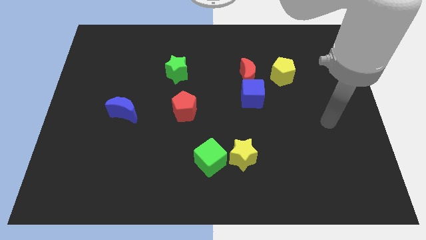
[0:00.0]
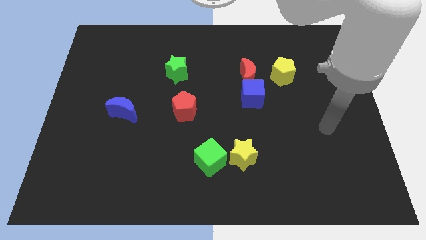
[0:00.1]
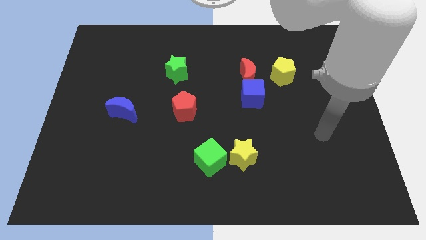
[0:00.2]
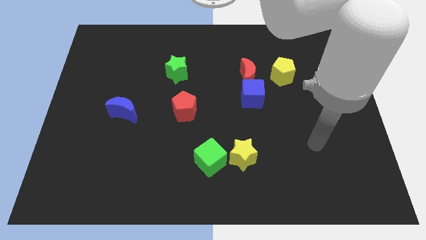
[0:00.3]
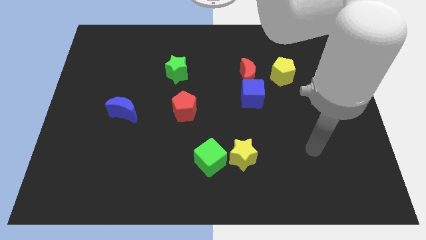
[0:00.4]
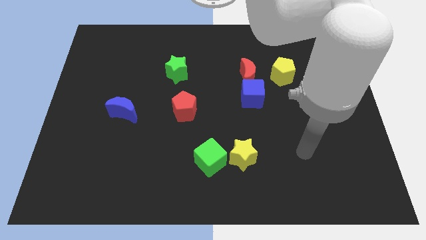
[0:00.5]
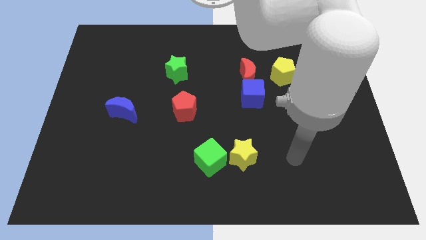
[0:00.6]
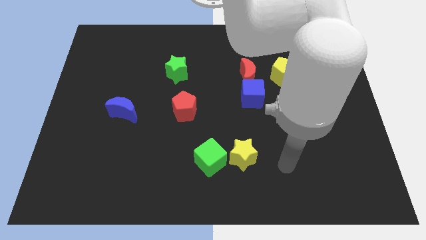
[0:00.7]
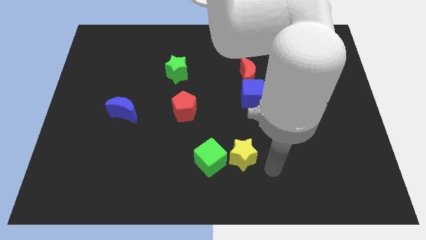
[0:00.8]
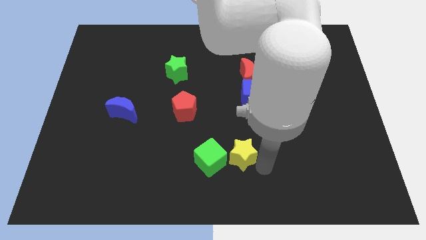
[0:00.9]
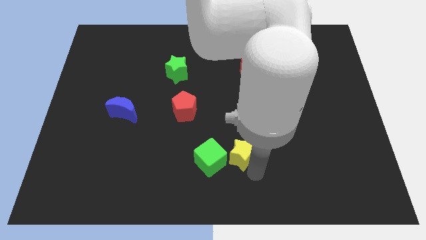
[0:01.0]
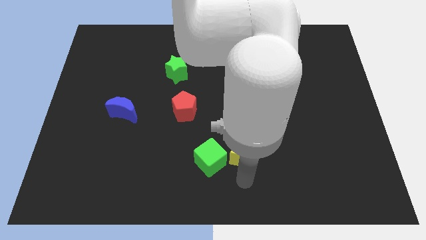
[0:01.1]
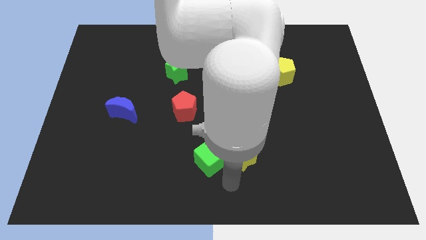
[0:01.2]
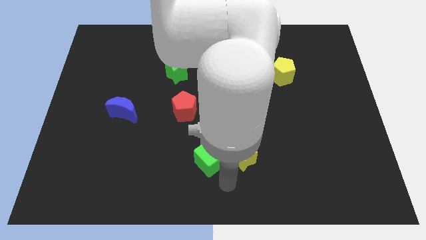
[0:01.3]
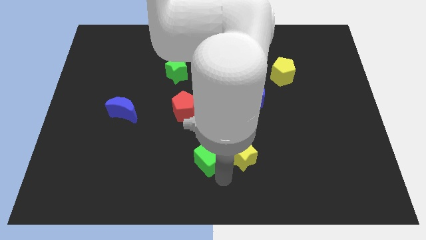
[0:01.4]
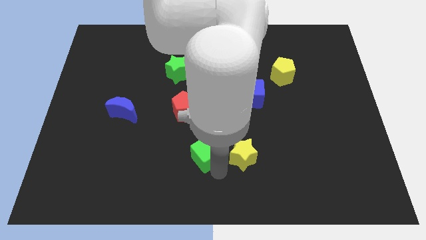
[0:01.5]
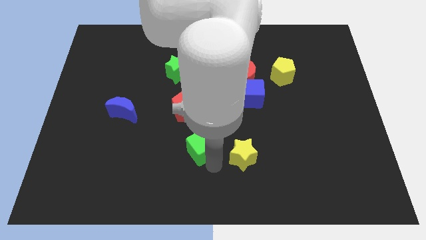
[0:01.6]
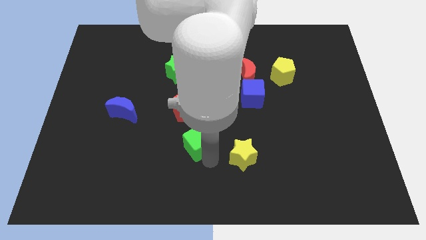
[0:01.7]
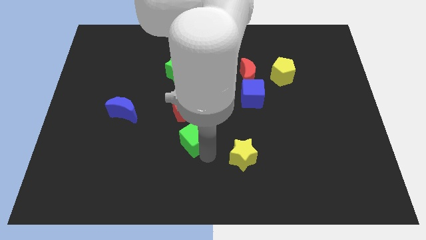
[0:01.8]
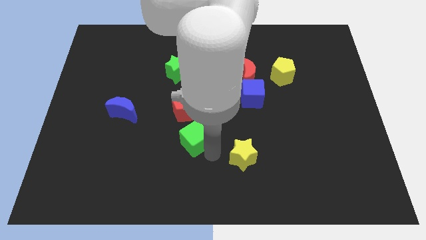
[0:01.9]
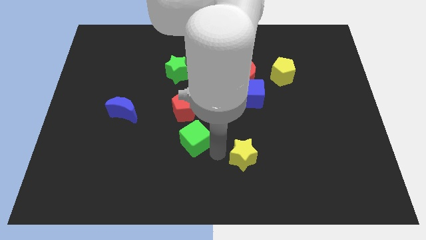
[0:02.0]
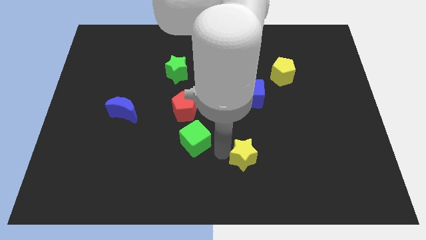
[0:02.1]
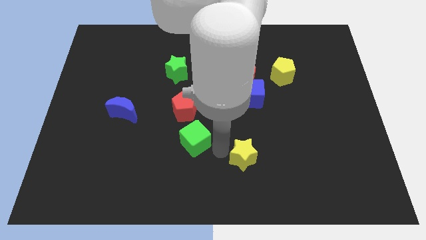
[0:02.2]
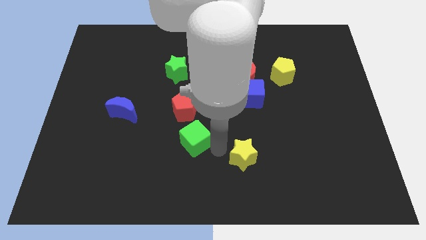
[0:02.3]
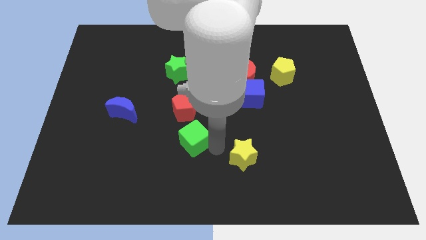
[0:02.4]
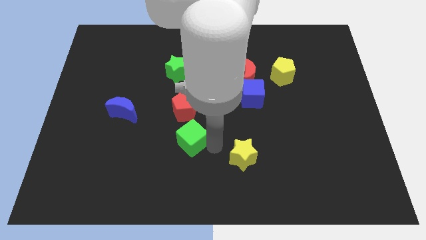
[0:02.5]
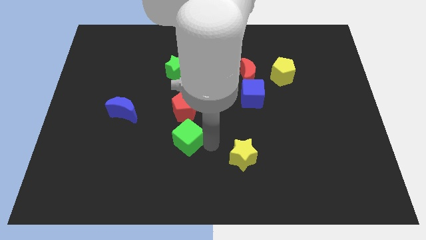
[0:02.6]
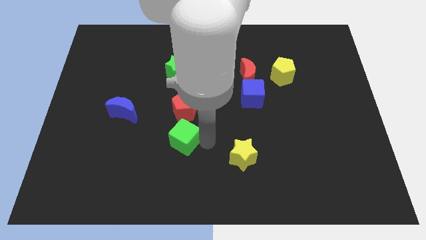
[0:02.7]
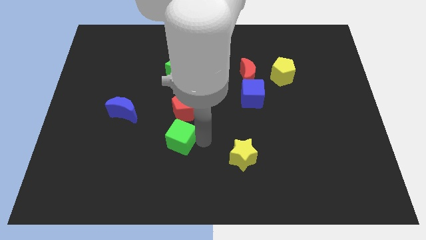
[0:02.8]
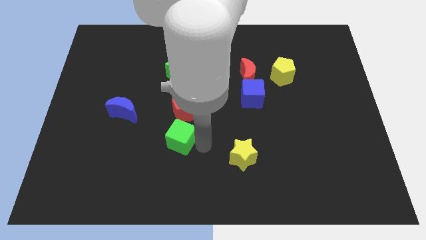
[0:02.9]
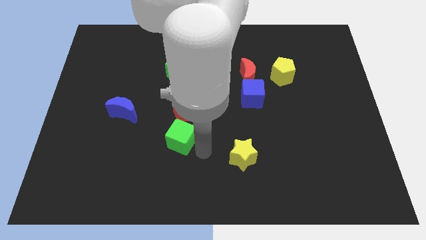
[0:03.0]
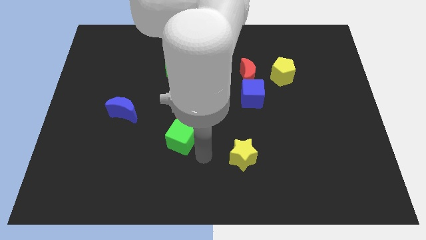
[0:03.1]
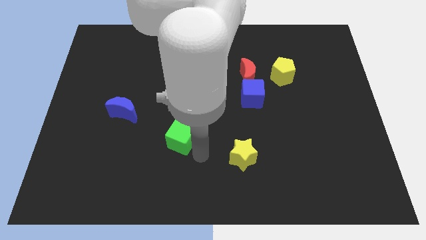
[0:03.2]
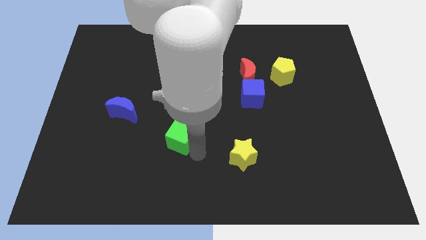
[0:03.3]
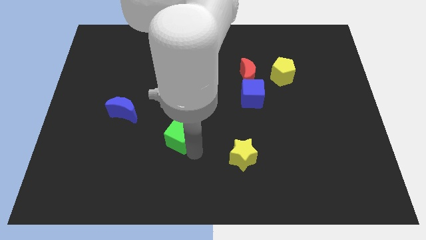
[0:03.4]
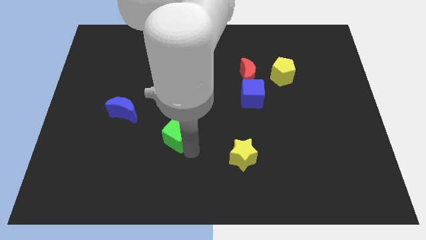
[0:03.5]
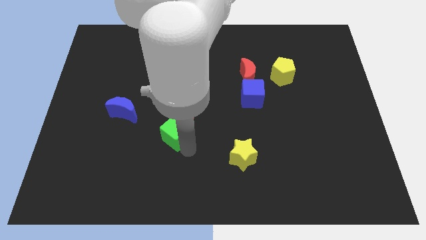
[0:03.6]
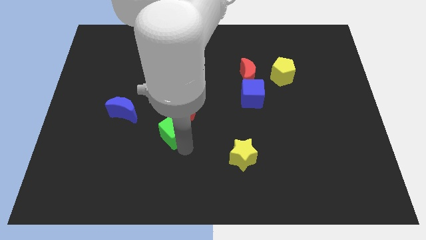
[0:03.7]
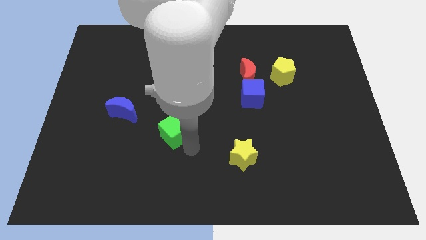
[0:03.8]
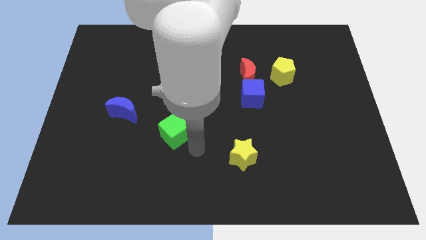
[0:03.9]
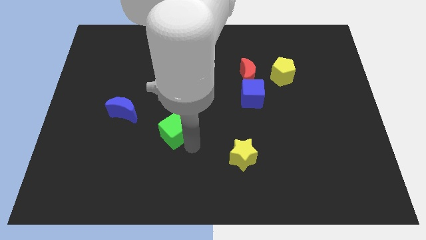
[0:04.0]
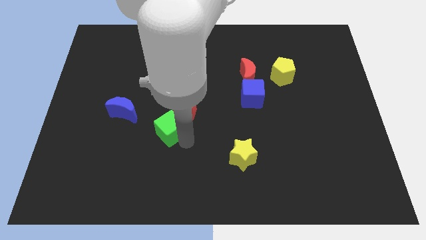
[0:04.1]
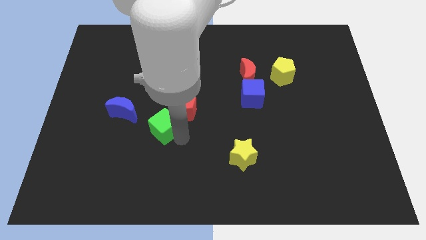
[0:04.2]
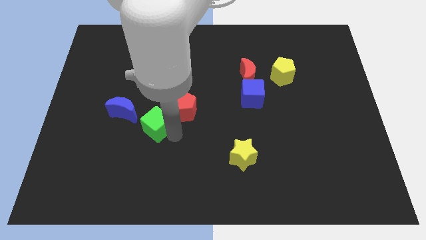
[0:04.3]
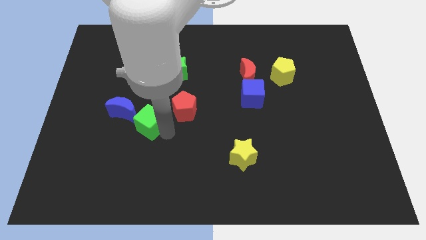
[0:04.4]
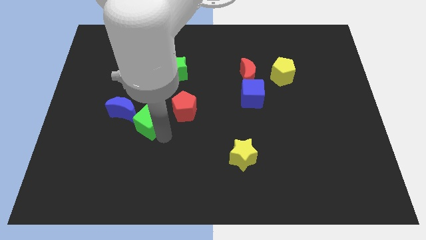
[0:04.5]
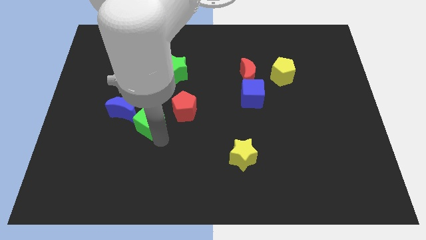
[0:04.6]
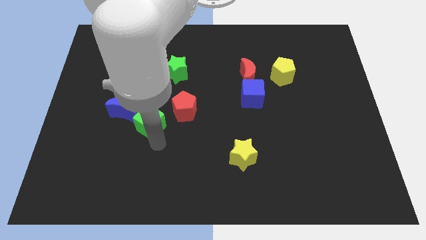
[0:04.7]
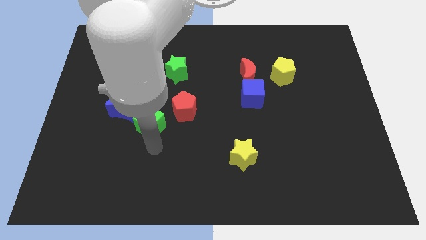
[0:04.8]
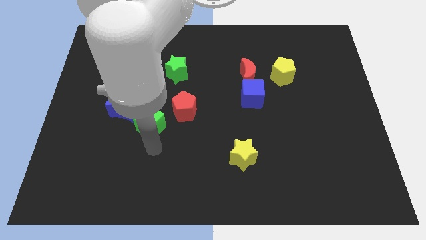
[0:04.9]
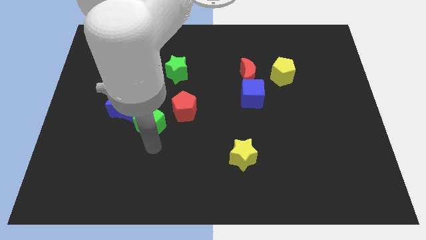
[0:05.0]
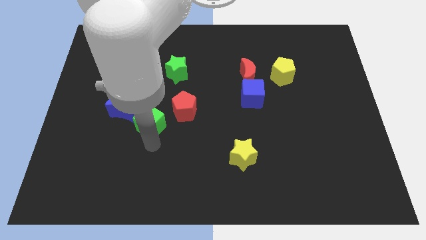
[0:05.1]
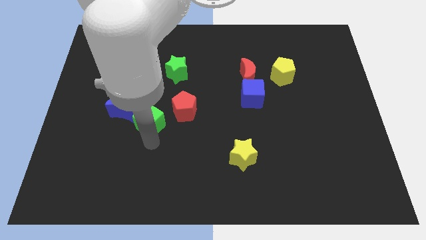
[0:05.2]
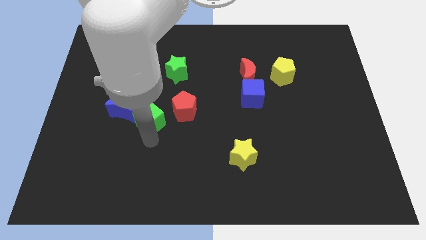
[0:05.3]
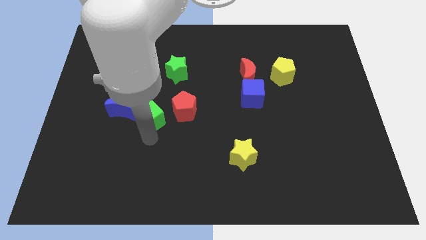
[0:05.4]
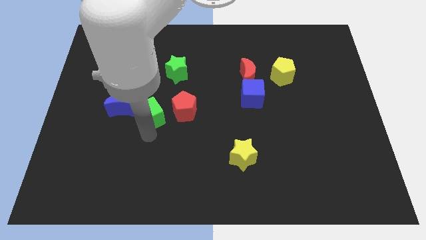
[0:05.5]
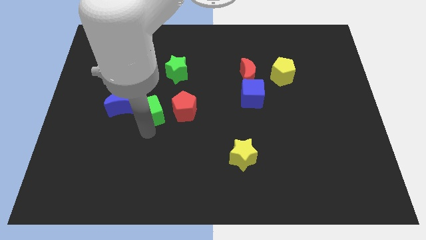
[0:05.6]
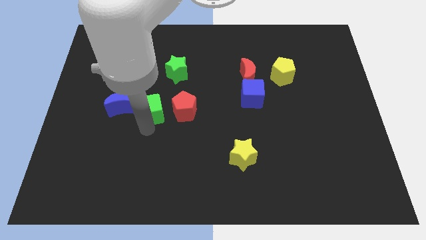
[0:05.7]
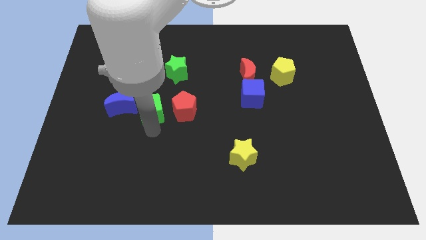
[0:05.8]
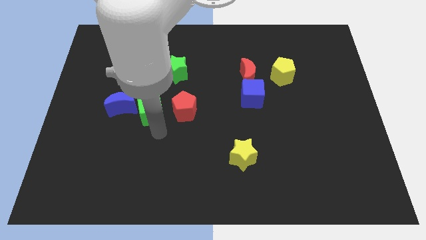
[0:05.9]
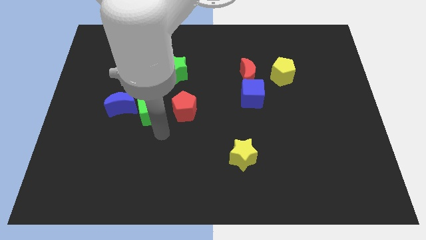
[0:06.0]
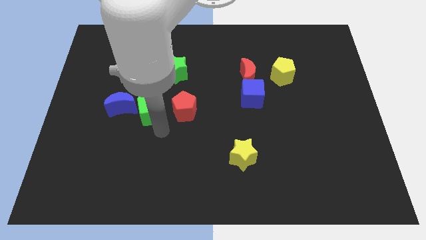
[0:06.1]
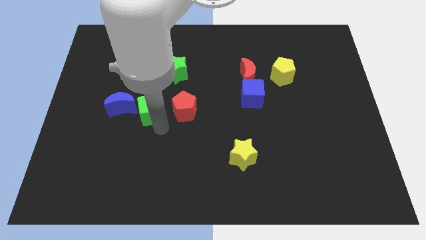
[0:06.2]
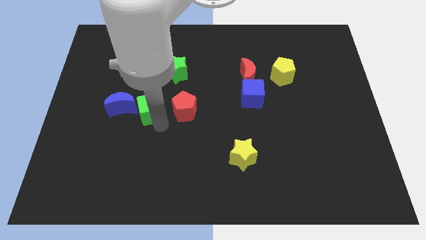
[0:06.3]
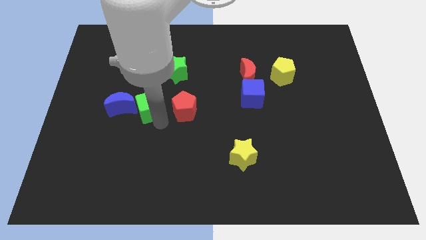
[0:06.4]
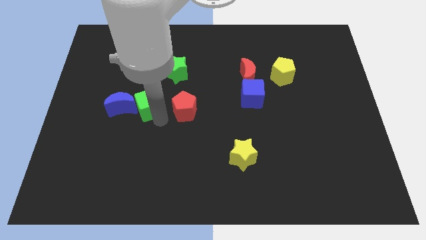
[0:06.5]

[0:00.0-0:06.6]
push the green cube upwards and left

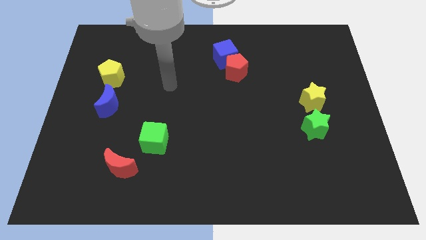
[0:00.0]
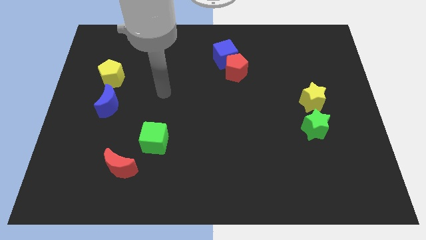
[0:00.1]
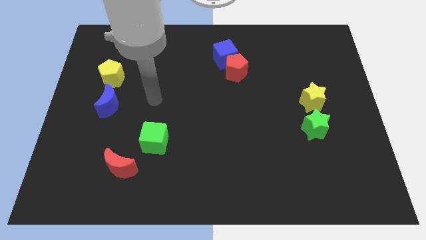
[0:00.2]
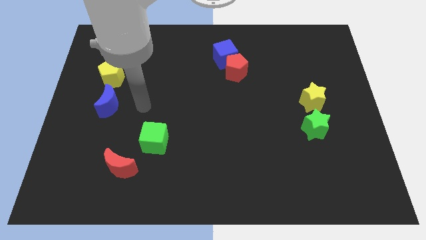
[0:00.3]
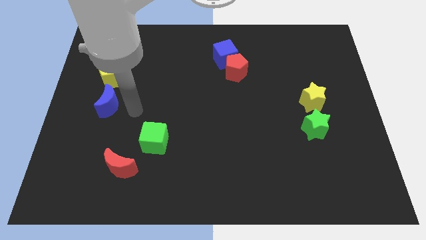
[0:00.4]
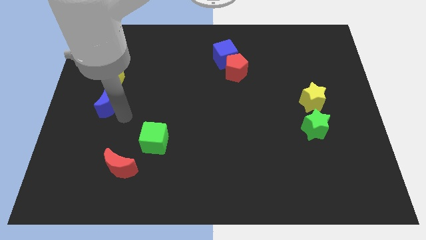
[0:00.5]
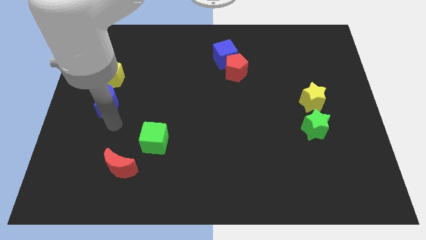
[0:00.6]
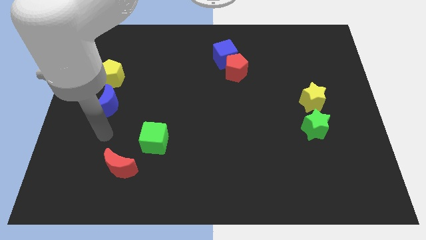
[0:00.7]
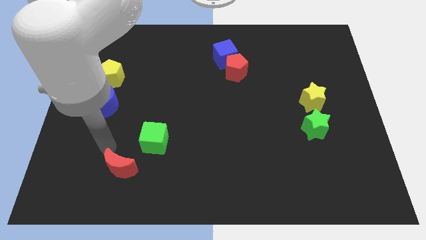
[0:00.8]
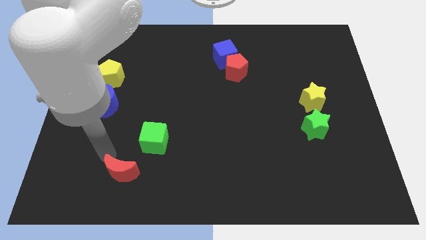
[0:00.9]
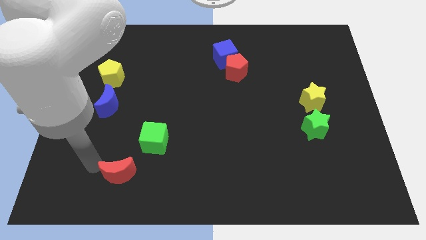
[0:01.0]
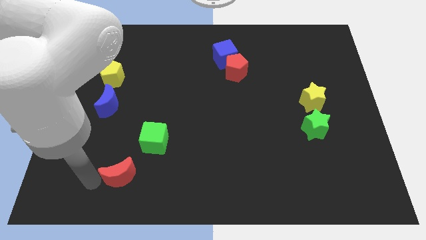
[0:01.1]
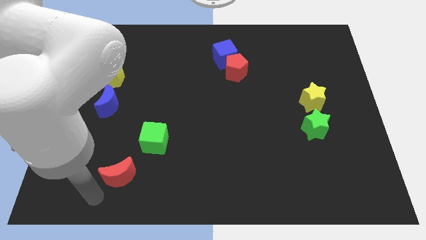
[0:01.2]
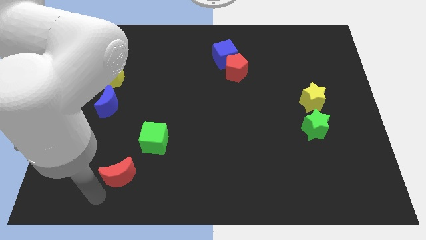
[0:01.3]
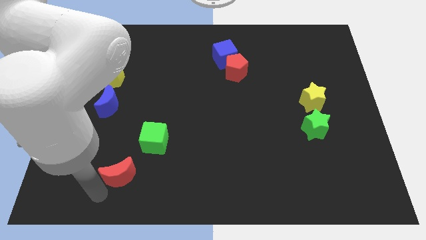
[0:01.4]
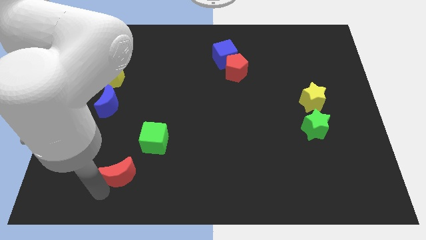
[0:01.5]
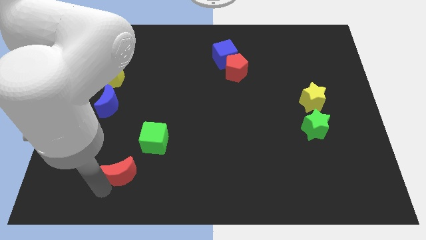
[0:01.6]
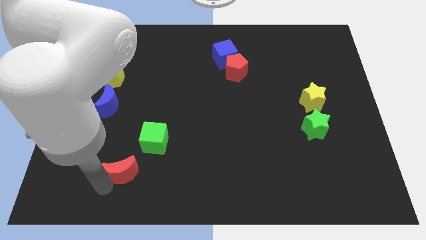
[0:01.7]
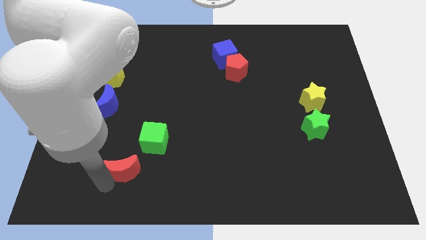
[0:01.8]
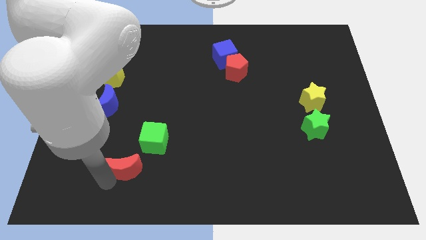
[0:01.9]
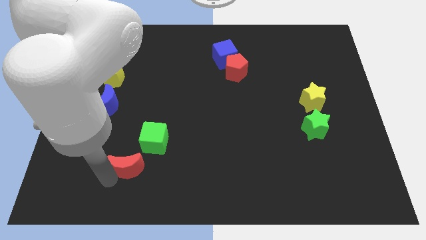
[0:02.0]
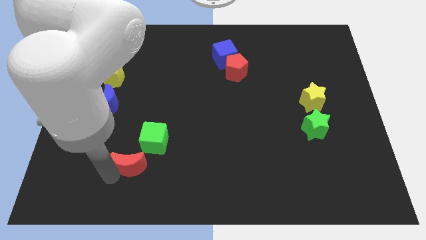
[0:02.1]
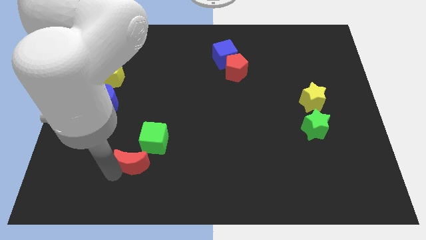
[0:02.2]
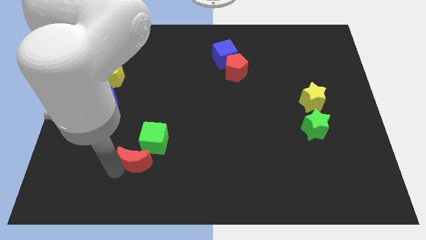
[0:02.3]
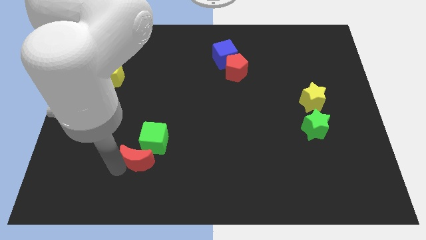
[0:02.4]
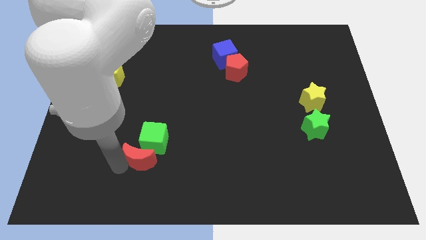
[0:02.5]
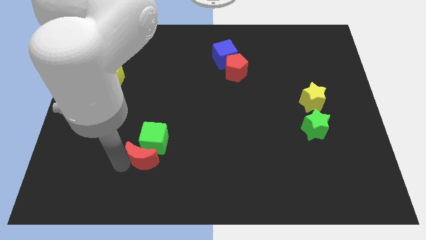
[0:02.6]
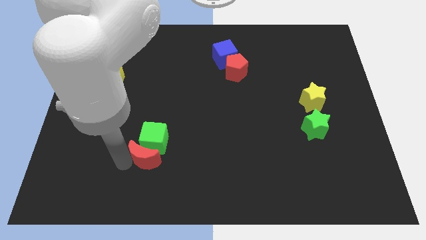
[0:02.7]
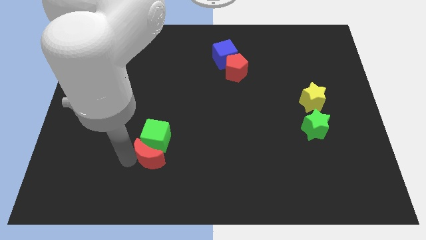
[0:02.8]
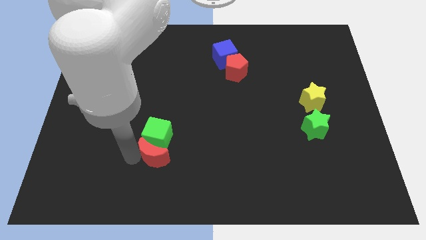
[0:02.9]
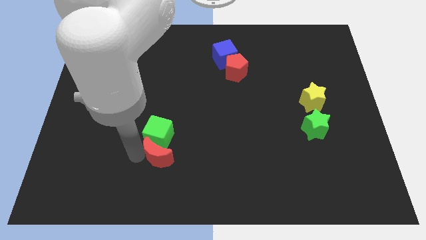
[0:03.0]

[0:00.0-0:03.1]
push the red moon upwards and then to the right a bit
